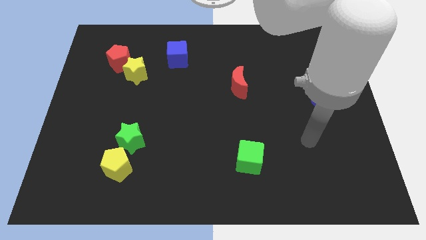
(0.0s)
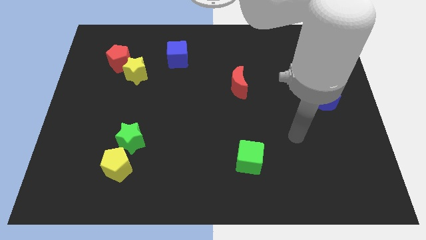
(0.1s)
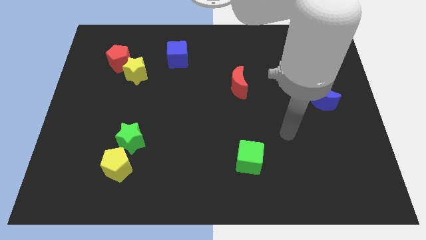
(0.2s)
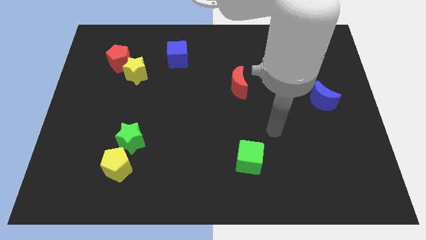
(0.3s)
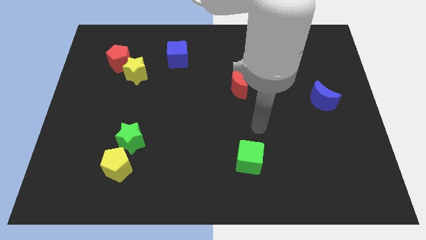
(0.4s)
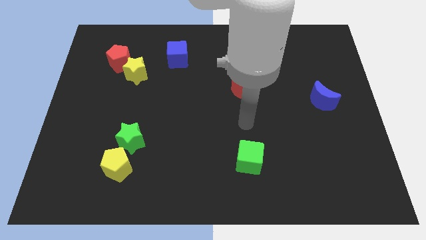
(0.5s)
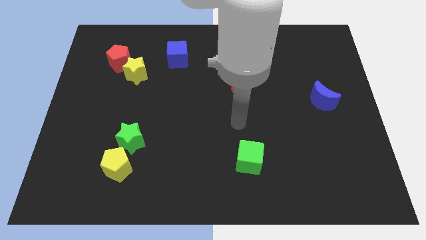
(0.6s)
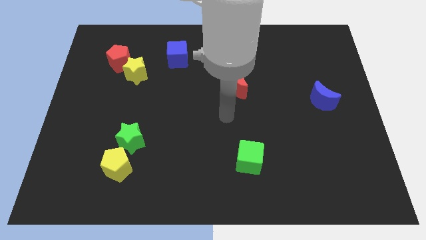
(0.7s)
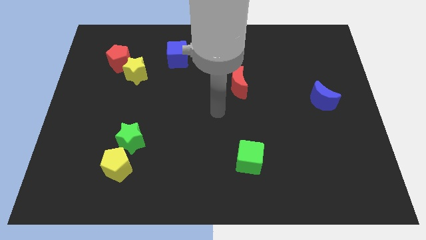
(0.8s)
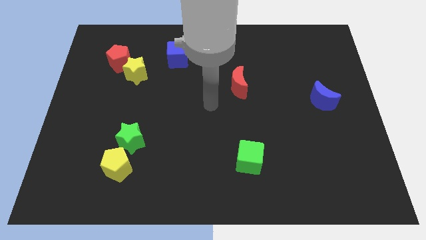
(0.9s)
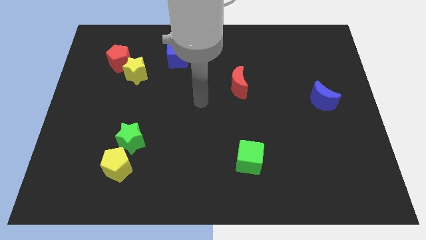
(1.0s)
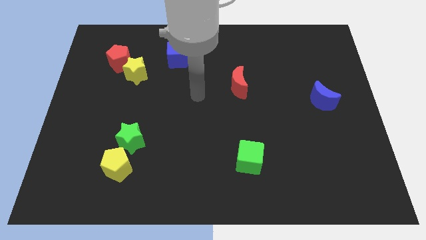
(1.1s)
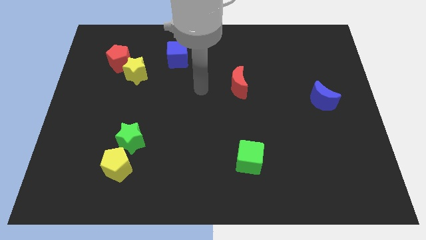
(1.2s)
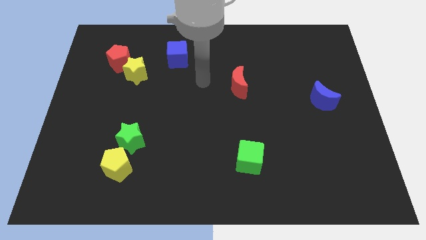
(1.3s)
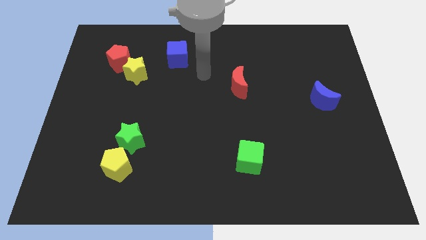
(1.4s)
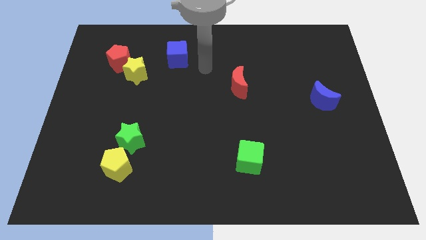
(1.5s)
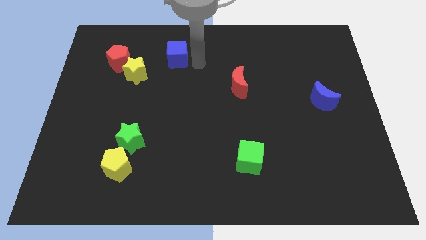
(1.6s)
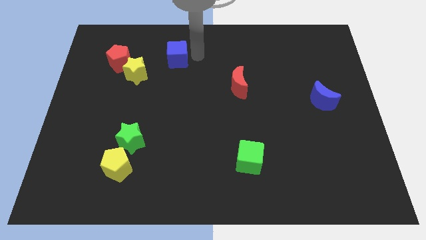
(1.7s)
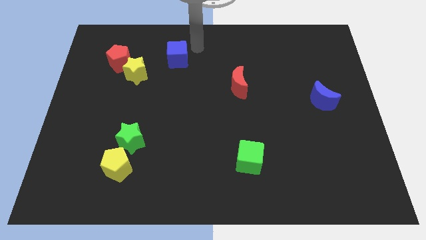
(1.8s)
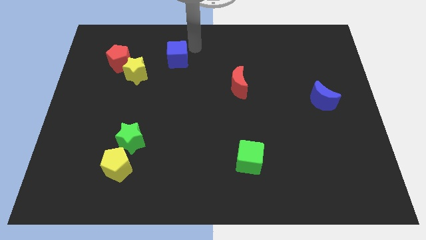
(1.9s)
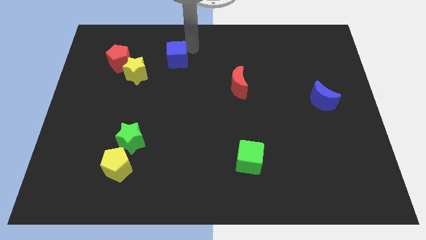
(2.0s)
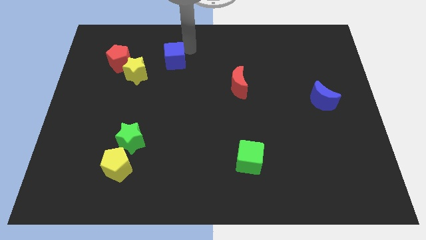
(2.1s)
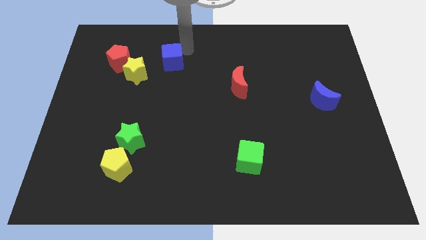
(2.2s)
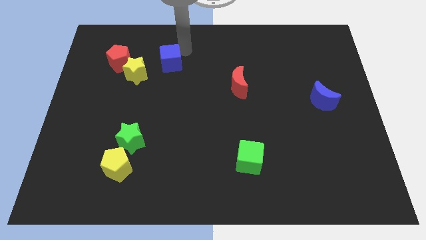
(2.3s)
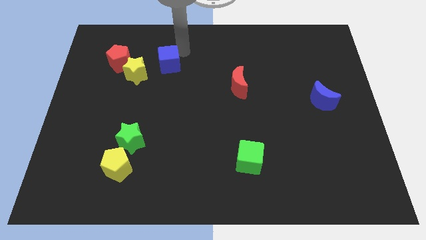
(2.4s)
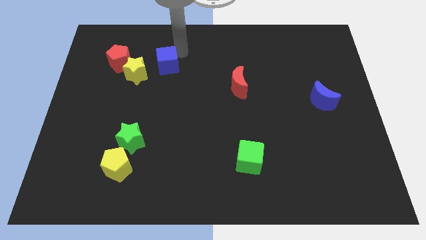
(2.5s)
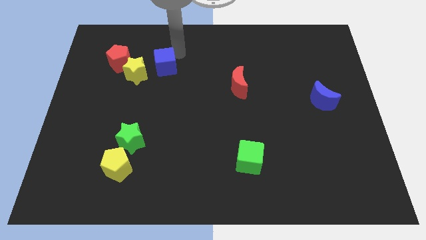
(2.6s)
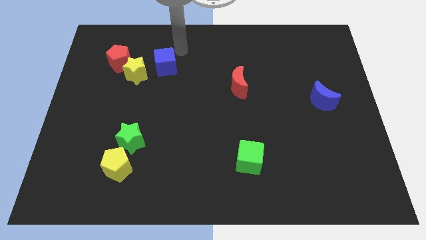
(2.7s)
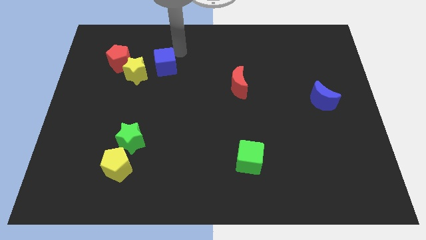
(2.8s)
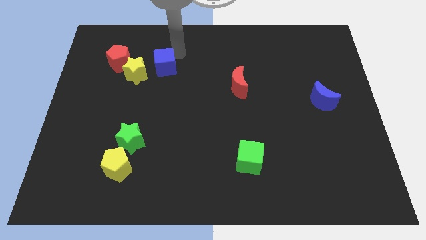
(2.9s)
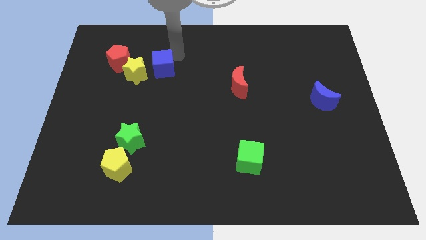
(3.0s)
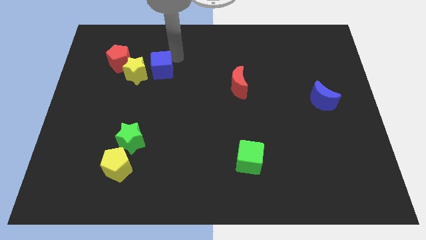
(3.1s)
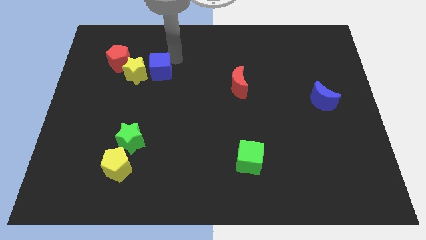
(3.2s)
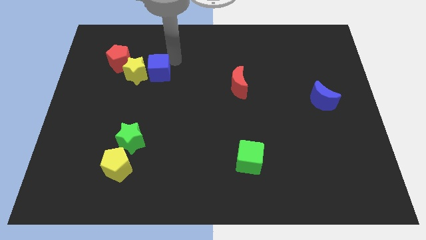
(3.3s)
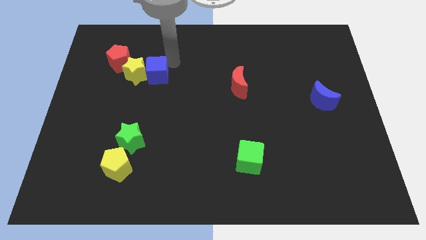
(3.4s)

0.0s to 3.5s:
push the blue cube slightly down and to the left

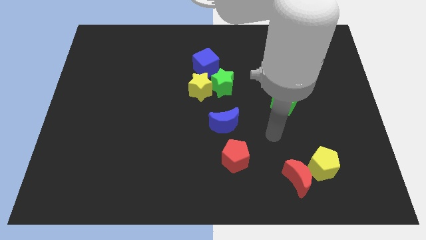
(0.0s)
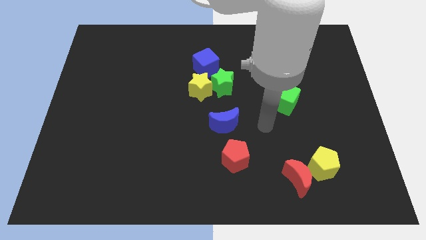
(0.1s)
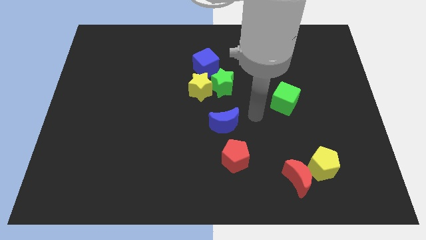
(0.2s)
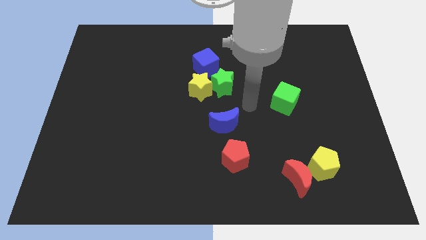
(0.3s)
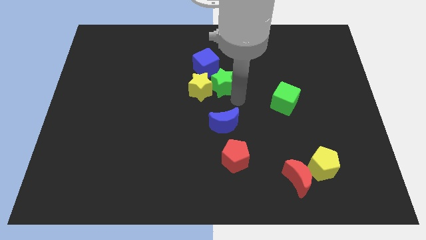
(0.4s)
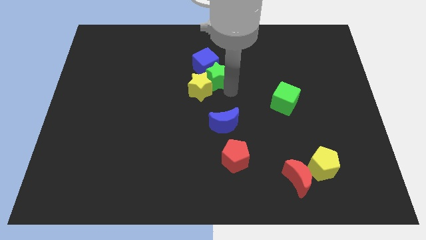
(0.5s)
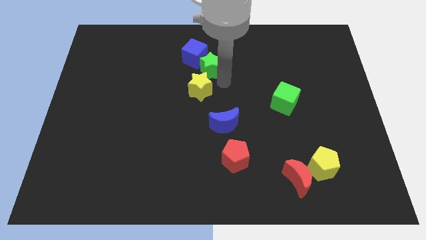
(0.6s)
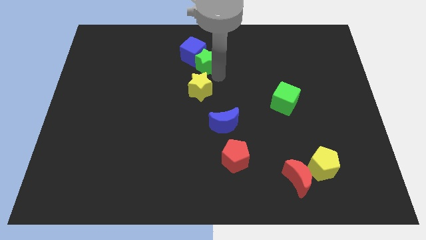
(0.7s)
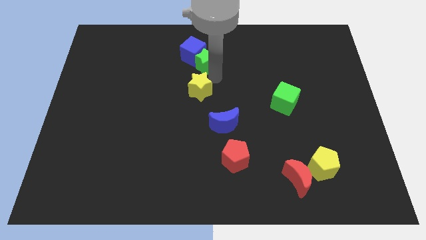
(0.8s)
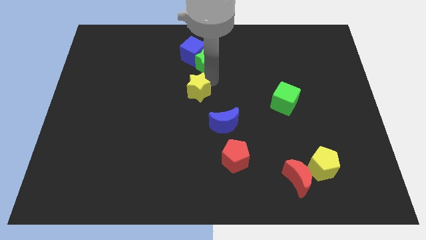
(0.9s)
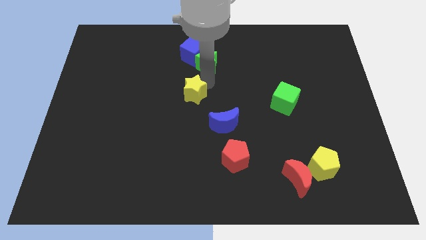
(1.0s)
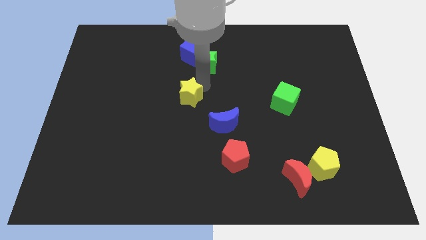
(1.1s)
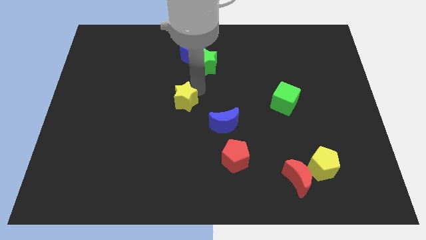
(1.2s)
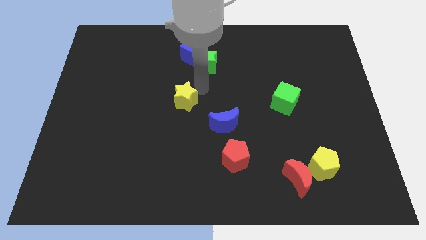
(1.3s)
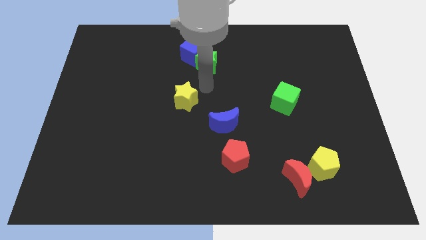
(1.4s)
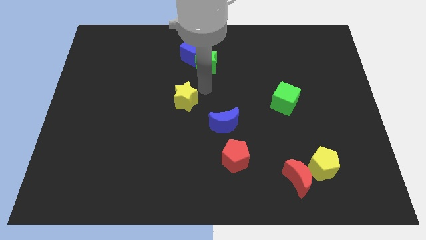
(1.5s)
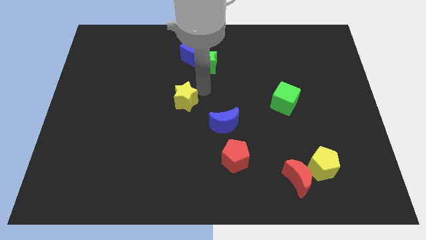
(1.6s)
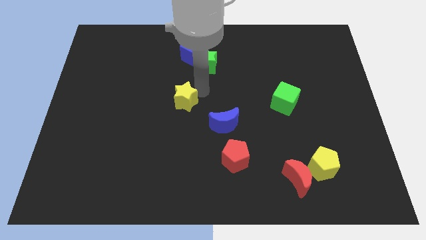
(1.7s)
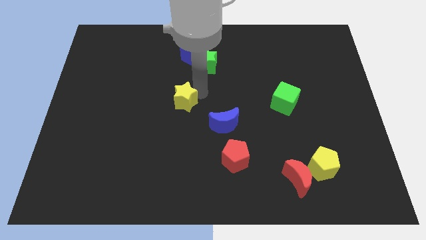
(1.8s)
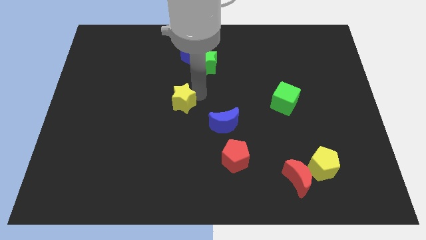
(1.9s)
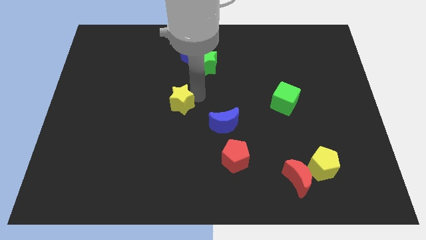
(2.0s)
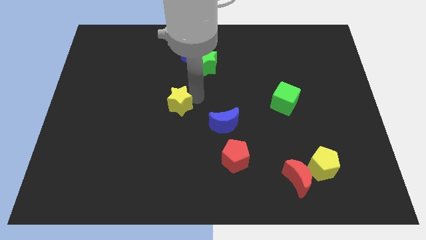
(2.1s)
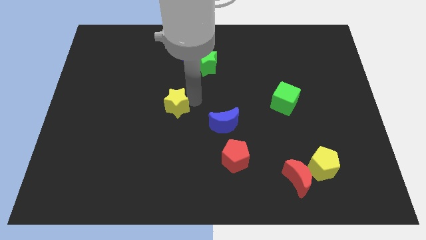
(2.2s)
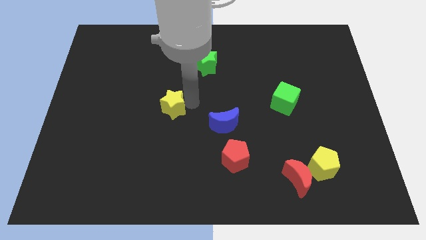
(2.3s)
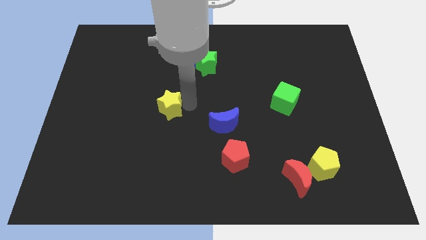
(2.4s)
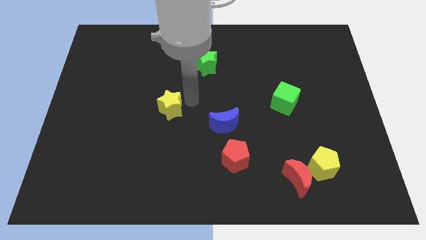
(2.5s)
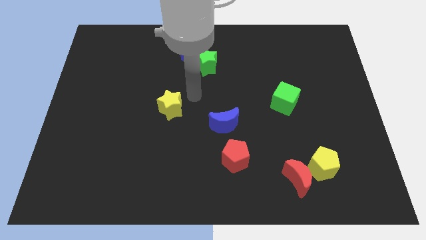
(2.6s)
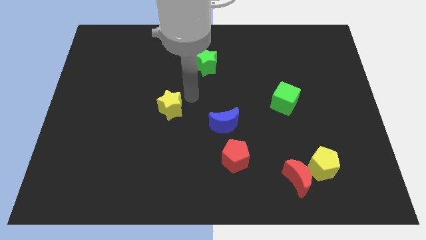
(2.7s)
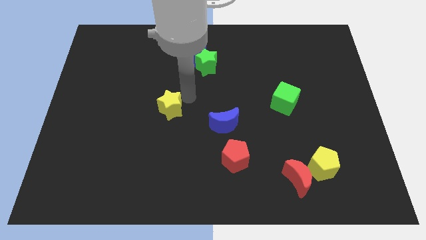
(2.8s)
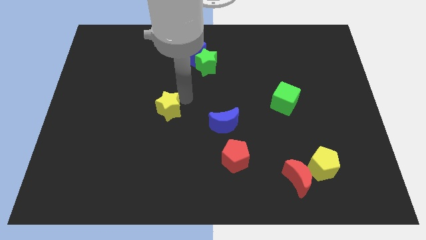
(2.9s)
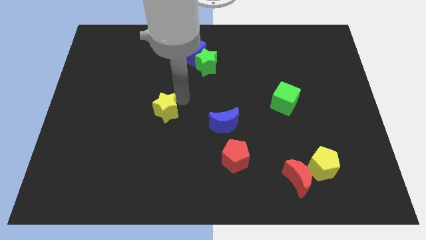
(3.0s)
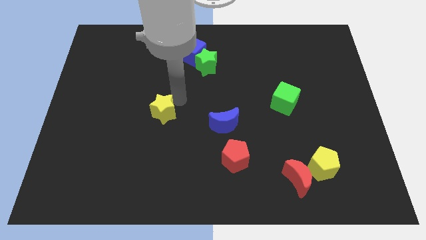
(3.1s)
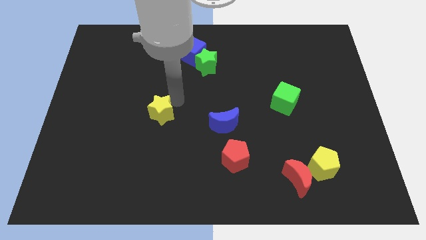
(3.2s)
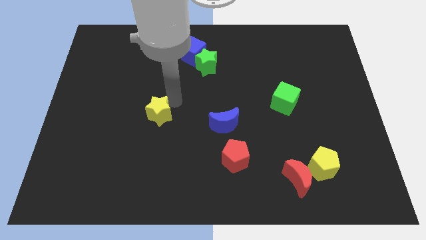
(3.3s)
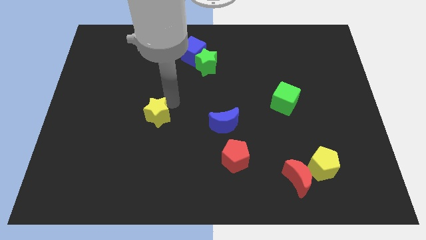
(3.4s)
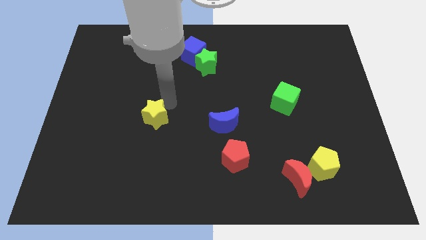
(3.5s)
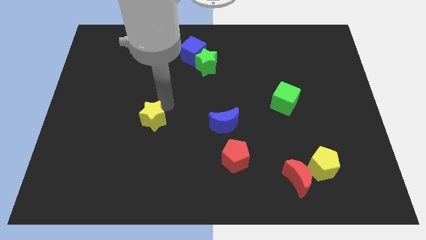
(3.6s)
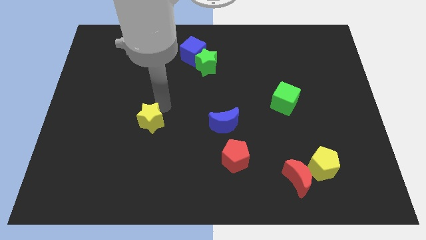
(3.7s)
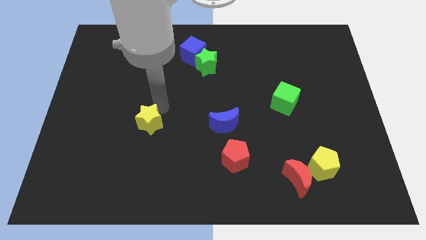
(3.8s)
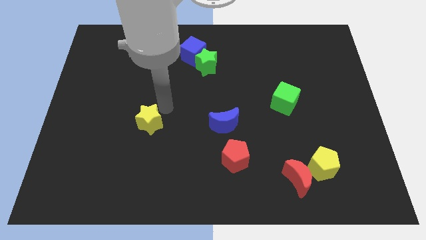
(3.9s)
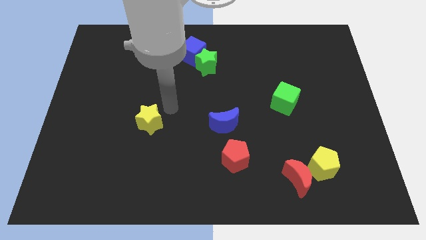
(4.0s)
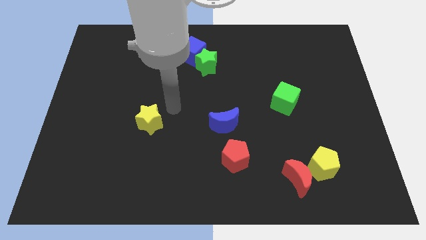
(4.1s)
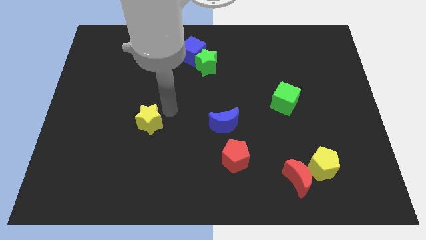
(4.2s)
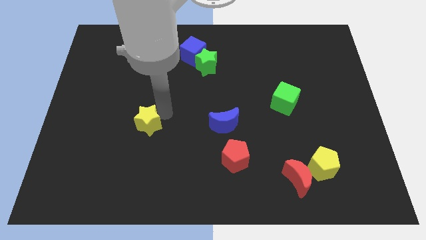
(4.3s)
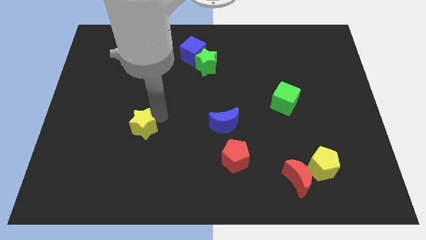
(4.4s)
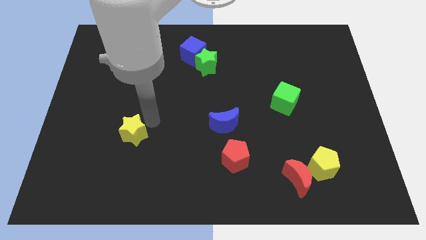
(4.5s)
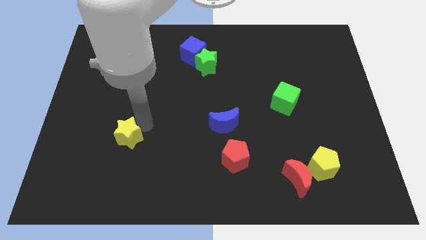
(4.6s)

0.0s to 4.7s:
move the yellow star downwards and left diagonally
